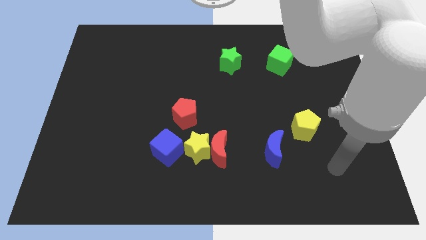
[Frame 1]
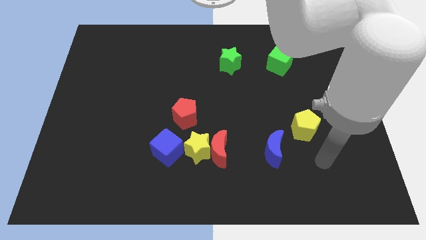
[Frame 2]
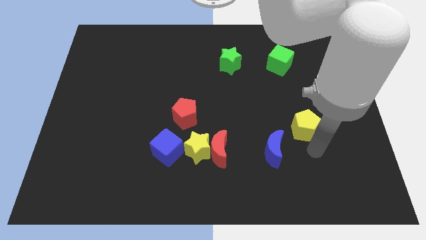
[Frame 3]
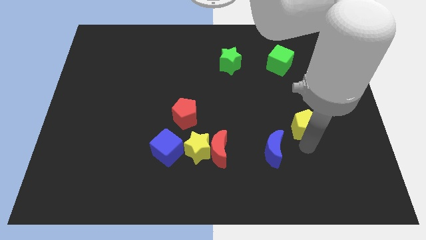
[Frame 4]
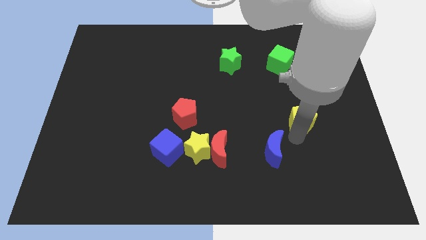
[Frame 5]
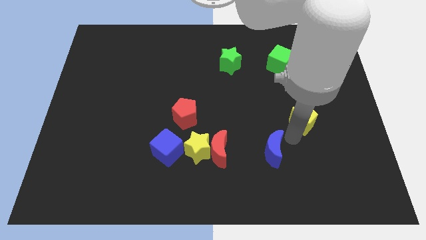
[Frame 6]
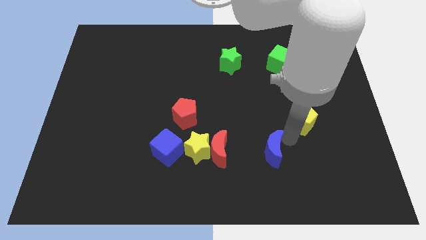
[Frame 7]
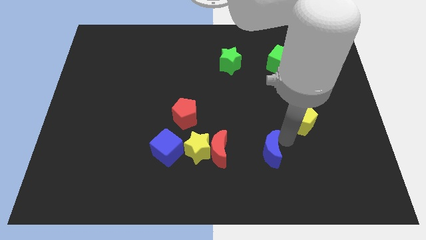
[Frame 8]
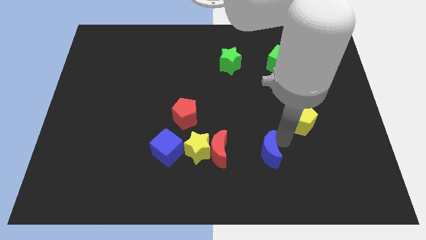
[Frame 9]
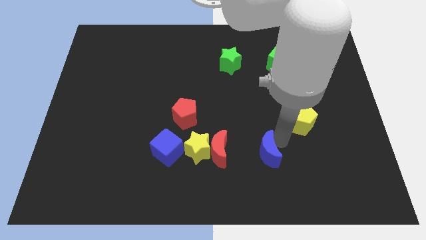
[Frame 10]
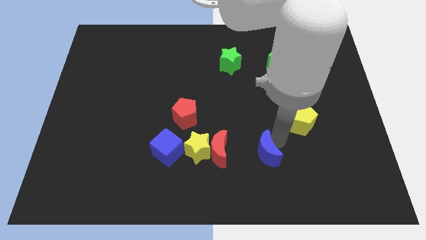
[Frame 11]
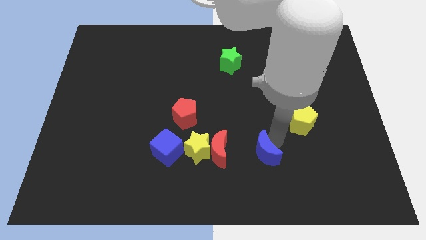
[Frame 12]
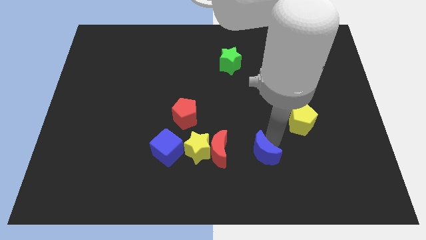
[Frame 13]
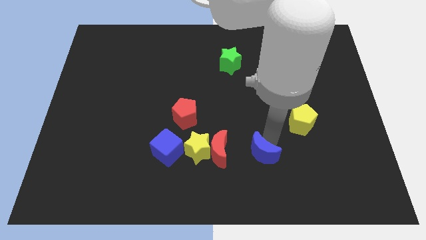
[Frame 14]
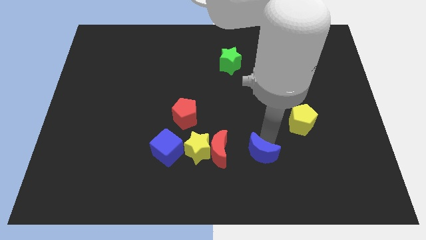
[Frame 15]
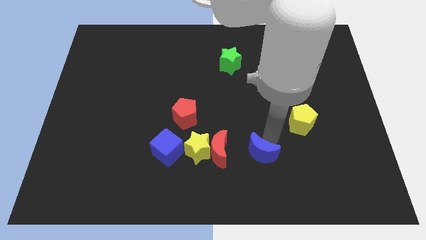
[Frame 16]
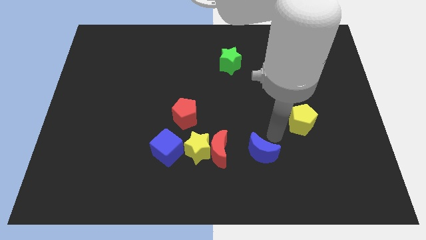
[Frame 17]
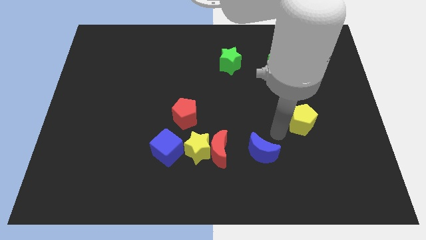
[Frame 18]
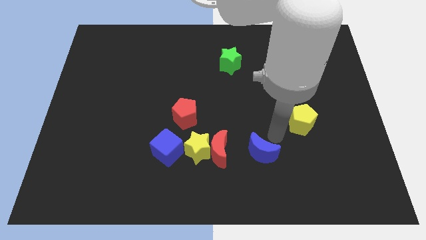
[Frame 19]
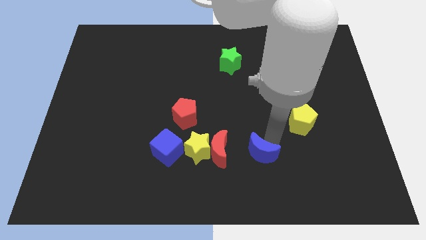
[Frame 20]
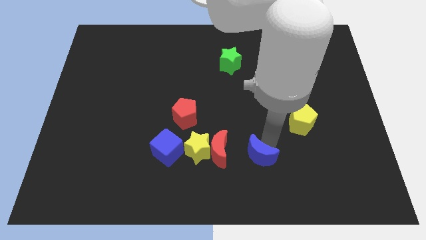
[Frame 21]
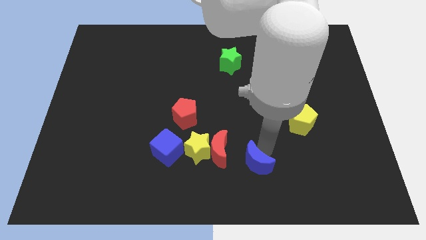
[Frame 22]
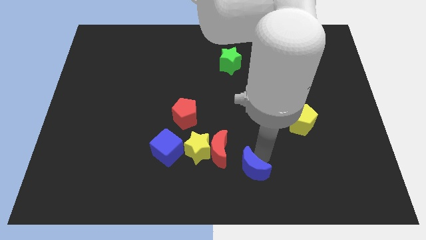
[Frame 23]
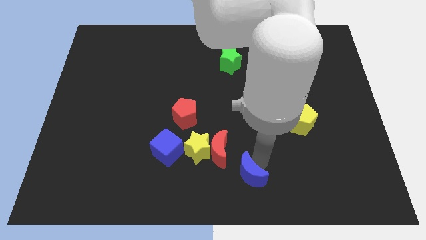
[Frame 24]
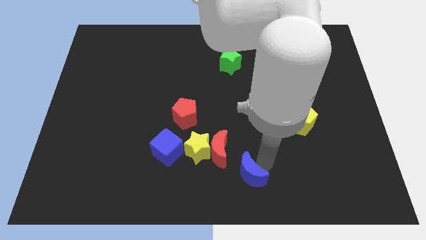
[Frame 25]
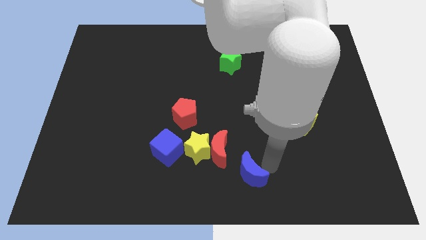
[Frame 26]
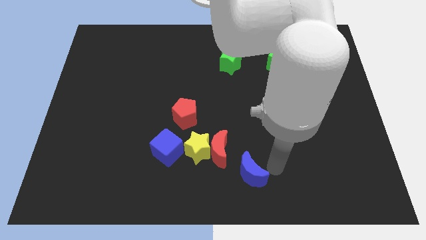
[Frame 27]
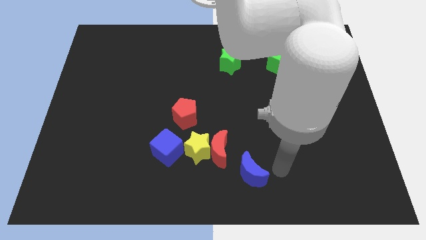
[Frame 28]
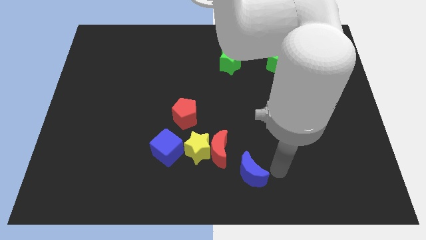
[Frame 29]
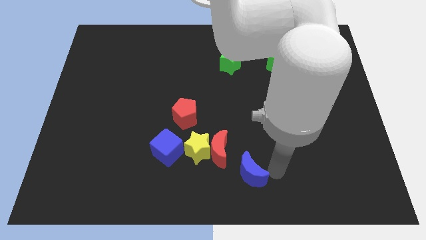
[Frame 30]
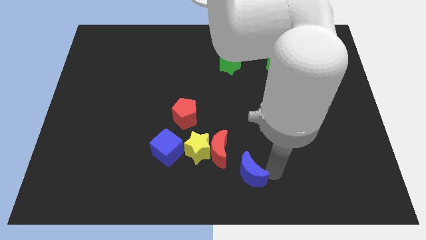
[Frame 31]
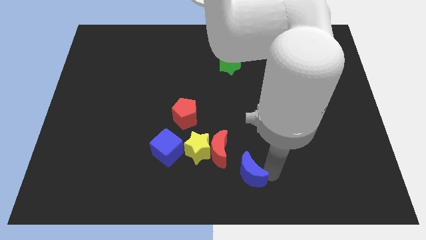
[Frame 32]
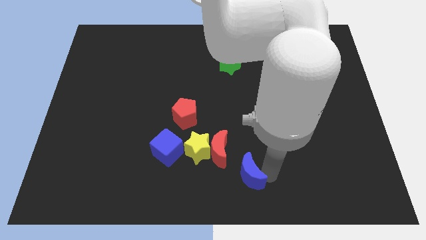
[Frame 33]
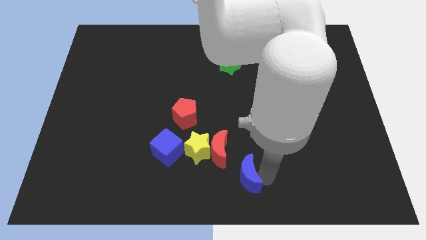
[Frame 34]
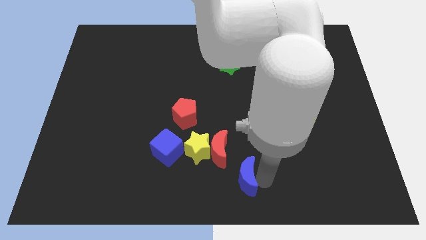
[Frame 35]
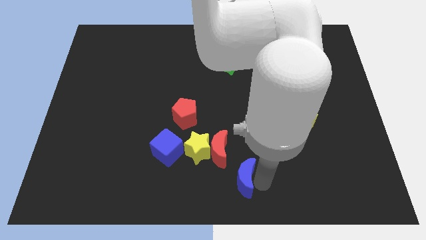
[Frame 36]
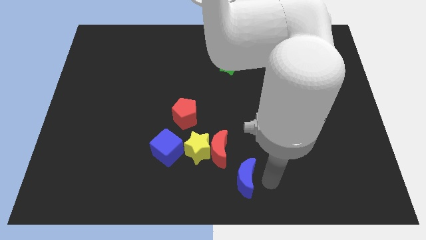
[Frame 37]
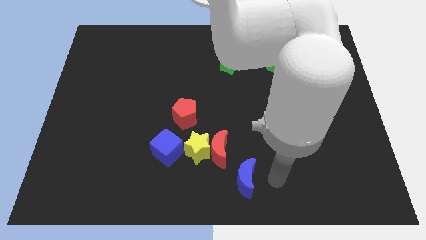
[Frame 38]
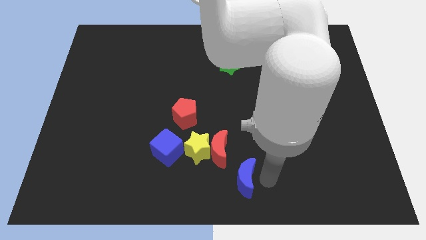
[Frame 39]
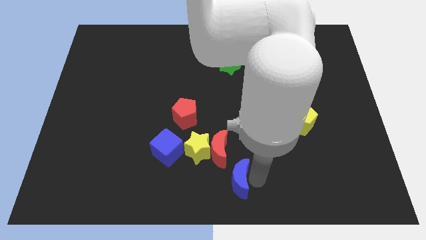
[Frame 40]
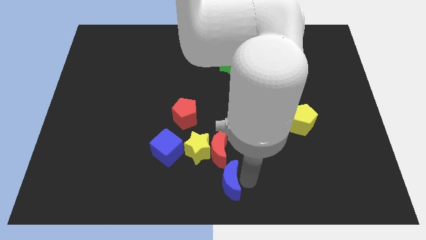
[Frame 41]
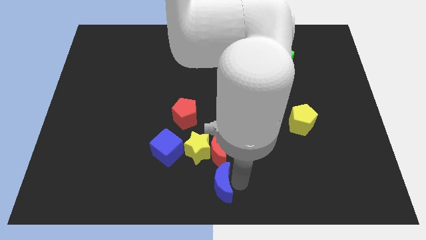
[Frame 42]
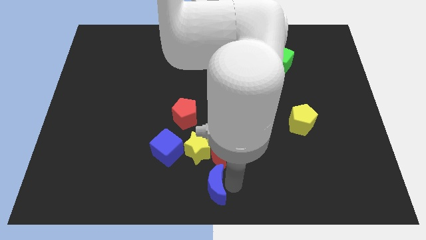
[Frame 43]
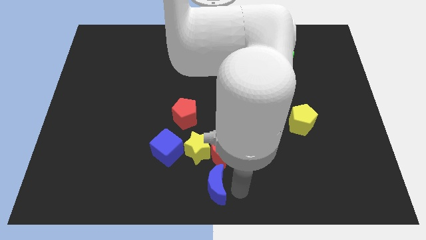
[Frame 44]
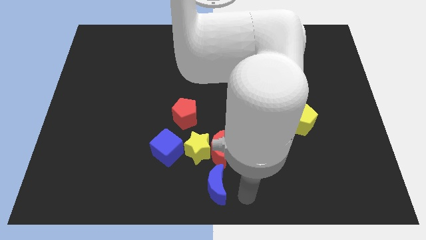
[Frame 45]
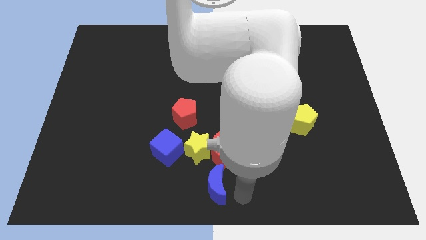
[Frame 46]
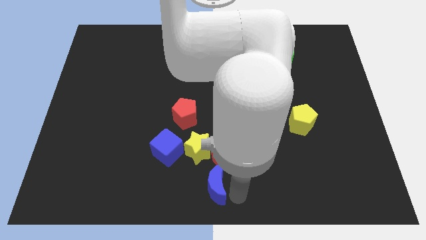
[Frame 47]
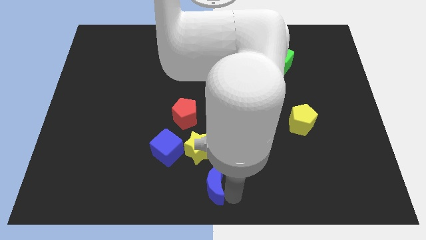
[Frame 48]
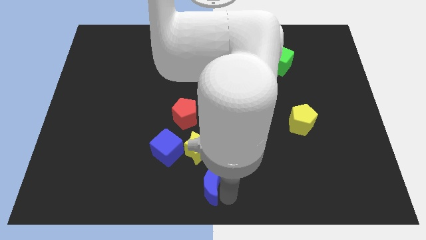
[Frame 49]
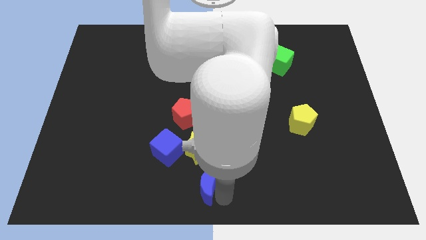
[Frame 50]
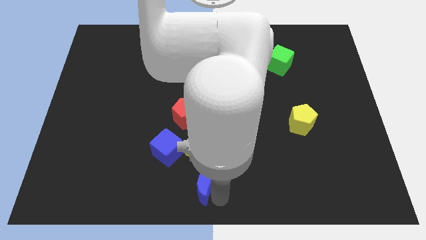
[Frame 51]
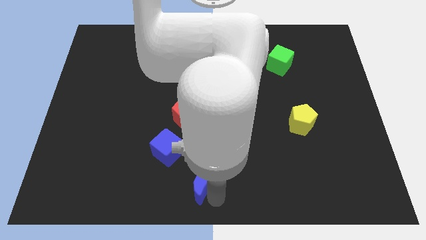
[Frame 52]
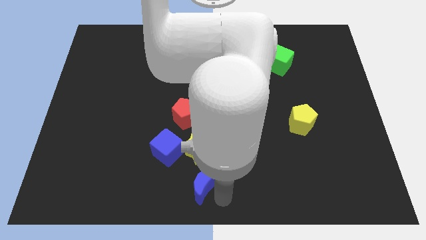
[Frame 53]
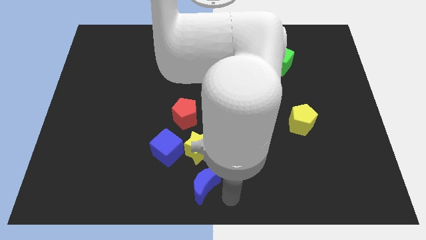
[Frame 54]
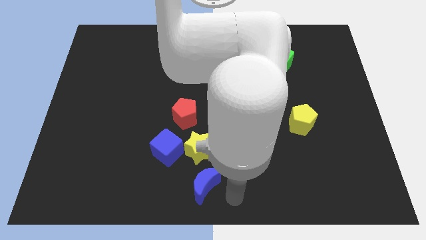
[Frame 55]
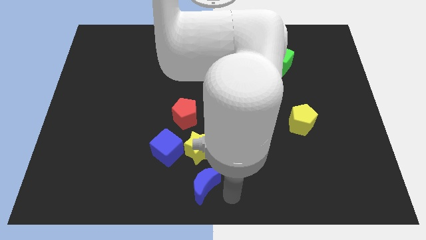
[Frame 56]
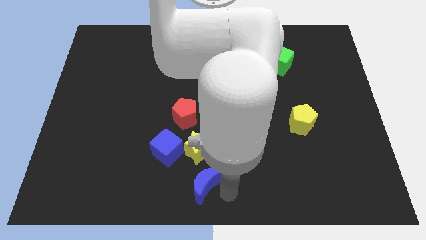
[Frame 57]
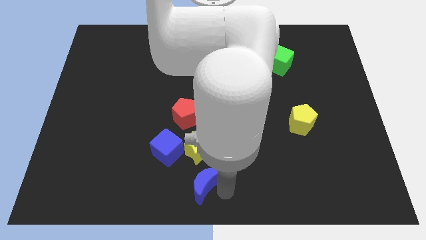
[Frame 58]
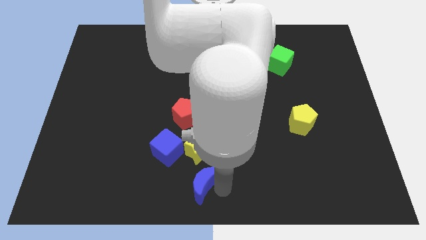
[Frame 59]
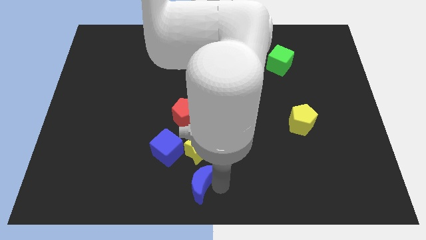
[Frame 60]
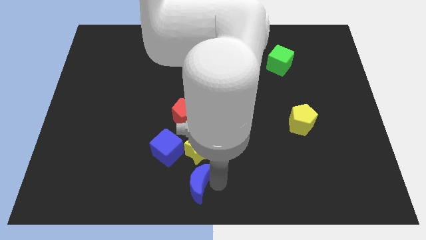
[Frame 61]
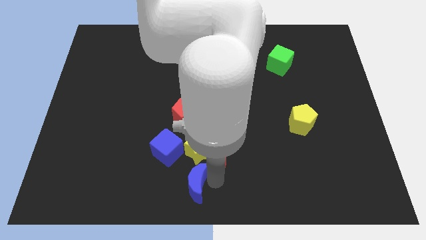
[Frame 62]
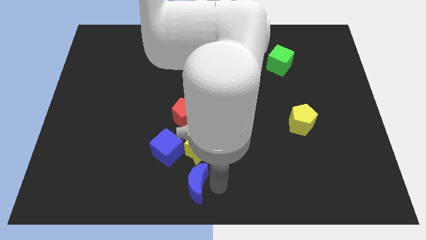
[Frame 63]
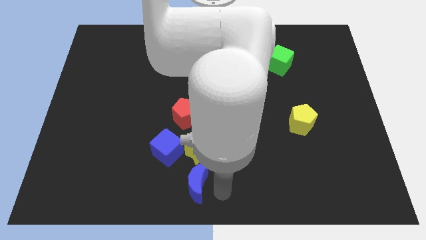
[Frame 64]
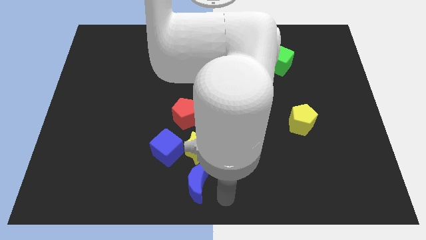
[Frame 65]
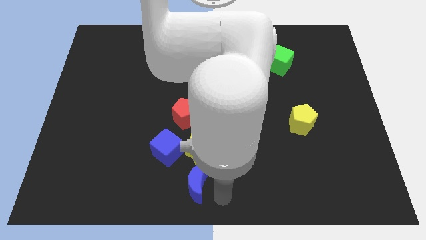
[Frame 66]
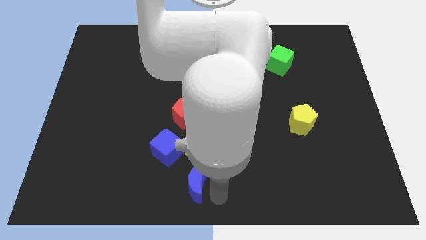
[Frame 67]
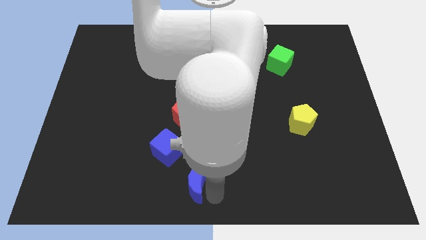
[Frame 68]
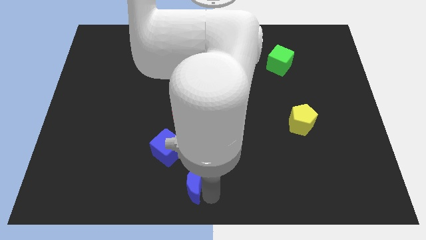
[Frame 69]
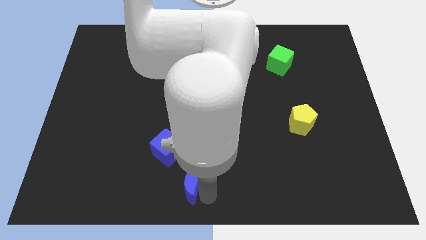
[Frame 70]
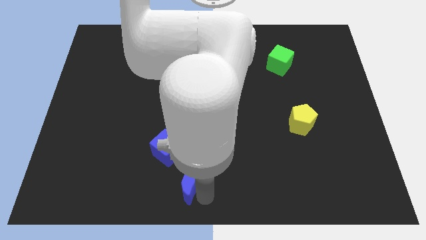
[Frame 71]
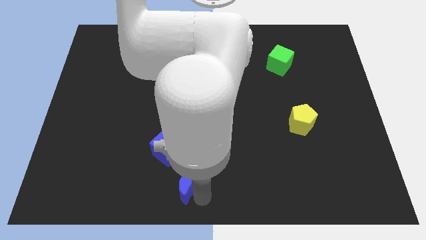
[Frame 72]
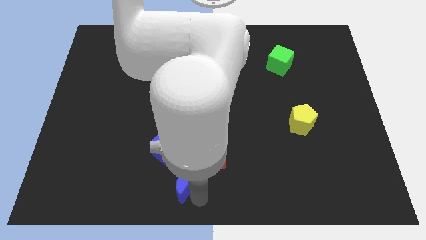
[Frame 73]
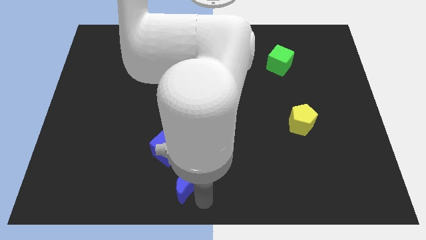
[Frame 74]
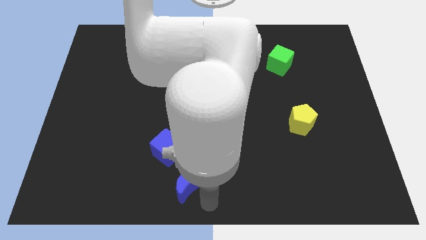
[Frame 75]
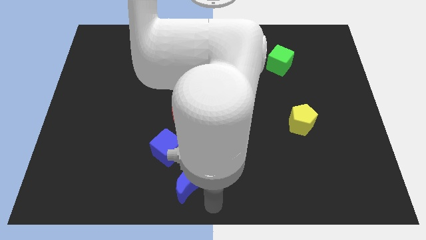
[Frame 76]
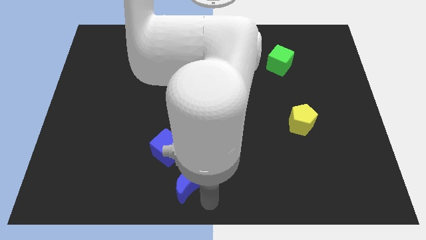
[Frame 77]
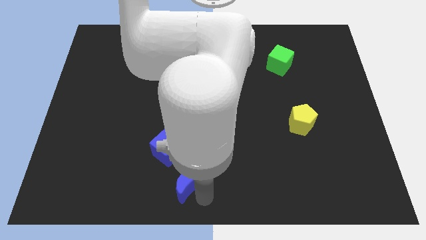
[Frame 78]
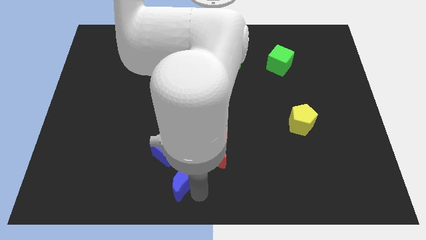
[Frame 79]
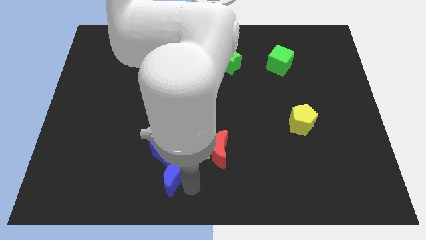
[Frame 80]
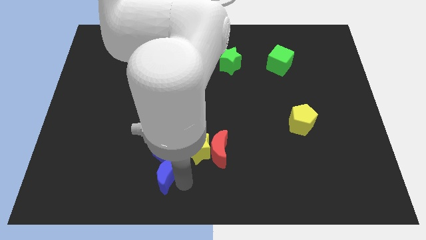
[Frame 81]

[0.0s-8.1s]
push the blue moon left

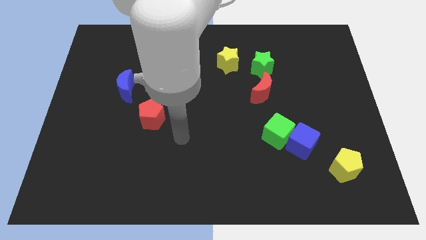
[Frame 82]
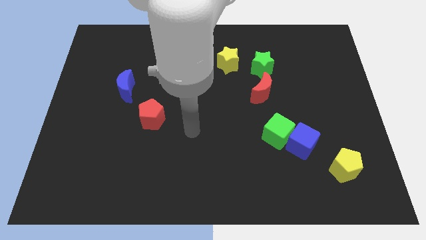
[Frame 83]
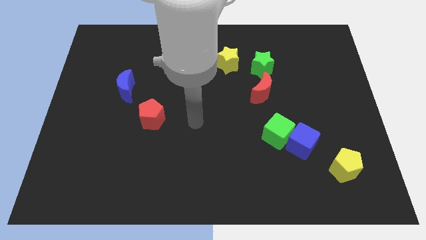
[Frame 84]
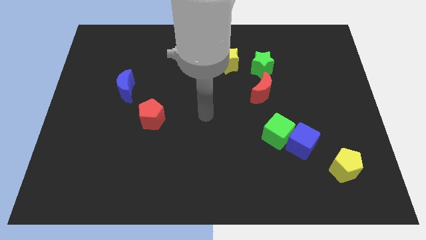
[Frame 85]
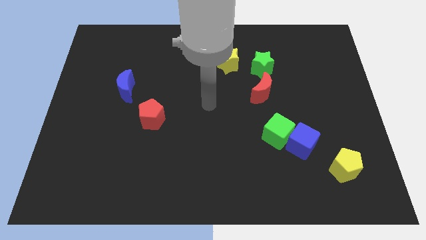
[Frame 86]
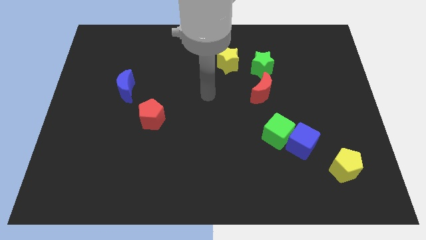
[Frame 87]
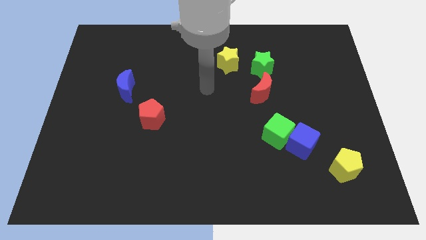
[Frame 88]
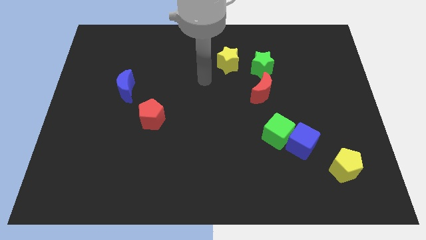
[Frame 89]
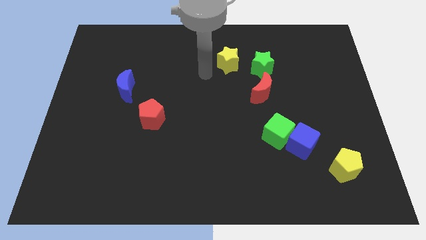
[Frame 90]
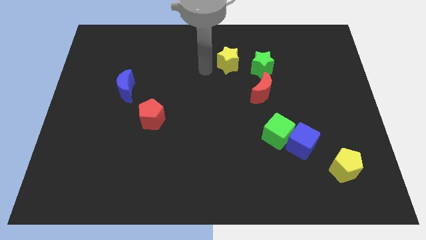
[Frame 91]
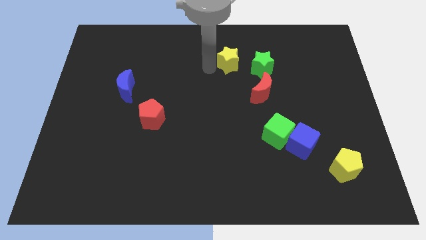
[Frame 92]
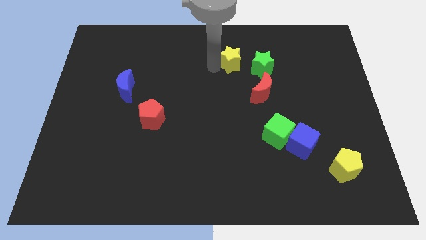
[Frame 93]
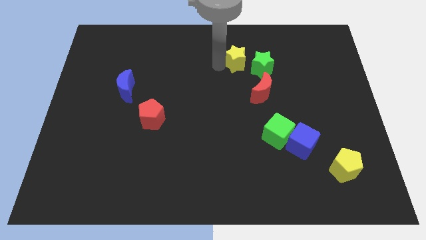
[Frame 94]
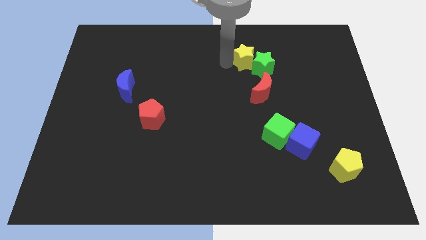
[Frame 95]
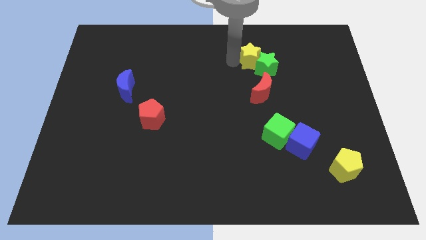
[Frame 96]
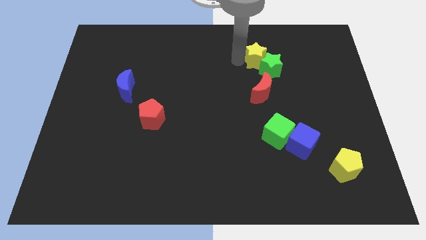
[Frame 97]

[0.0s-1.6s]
slide the yellow star a bit to the right
